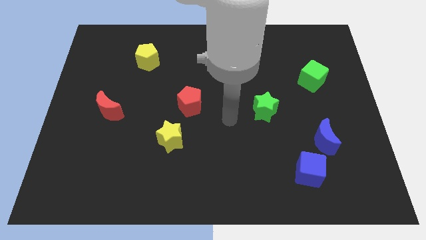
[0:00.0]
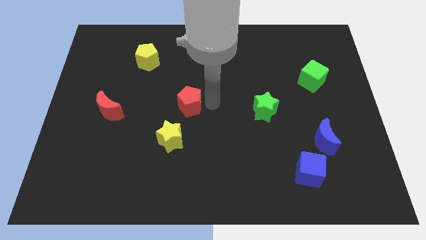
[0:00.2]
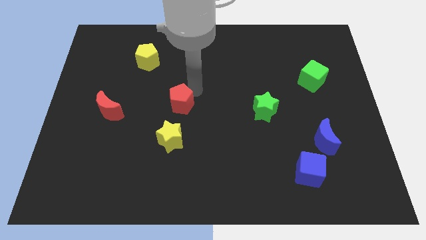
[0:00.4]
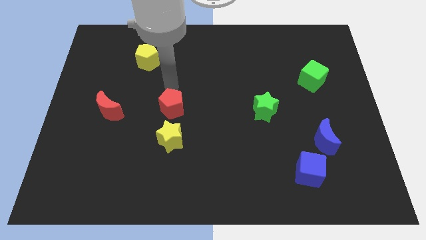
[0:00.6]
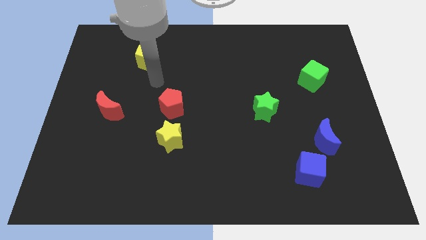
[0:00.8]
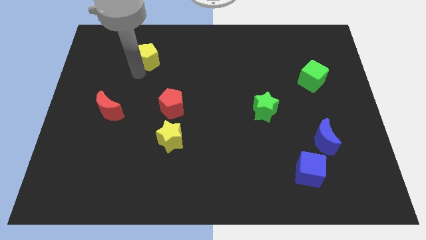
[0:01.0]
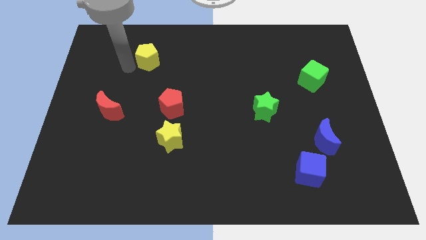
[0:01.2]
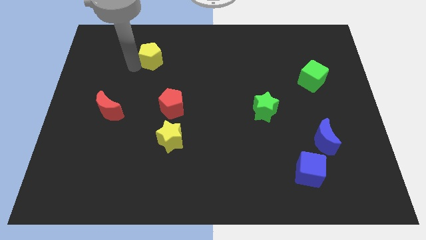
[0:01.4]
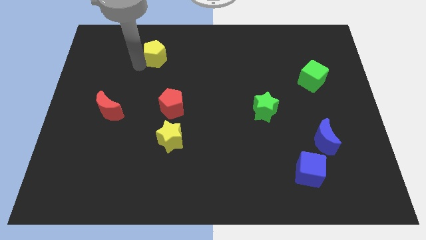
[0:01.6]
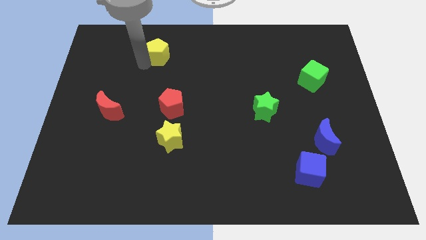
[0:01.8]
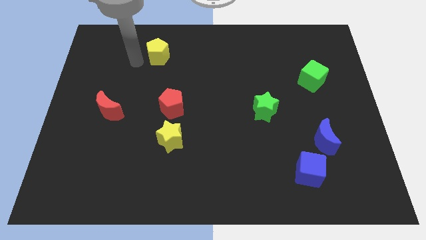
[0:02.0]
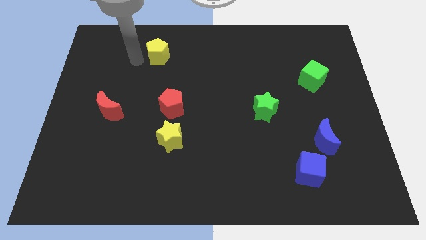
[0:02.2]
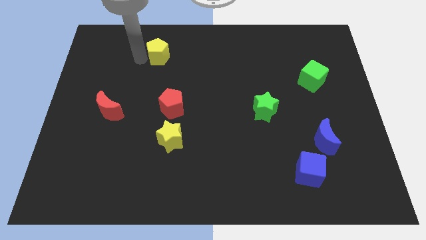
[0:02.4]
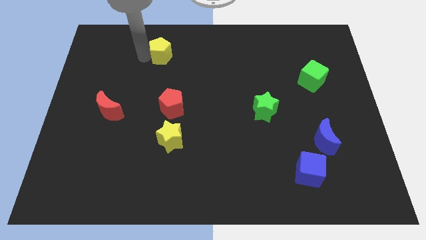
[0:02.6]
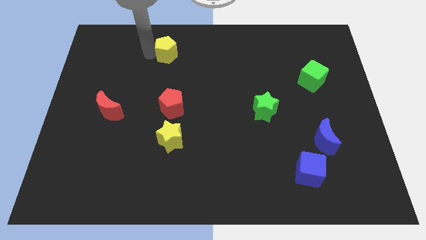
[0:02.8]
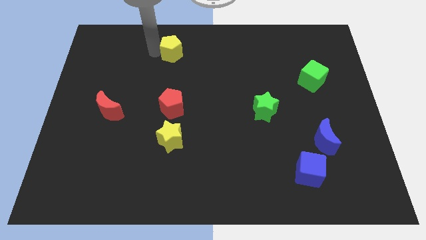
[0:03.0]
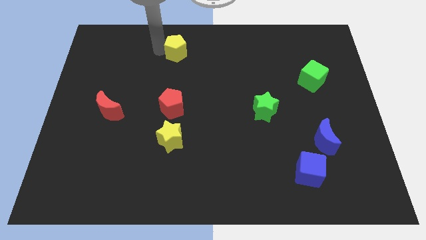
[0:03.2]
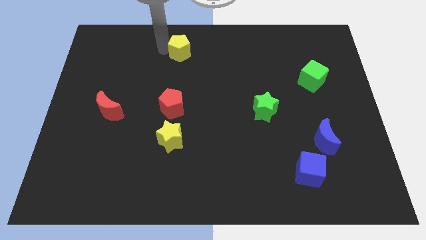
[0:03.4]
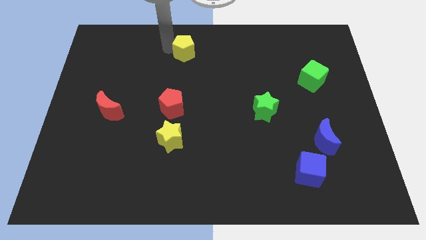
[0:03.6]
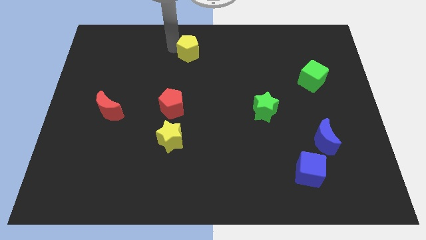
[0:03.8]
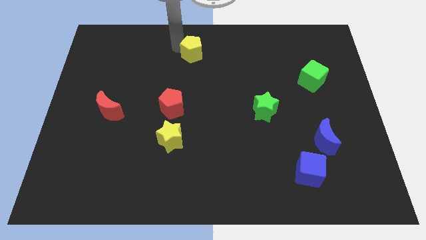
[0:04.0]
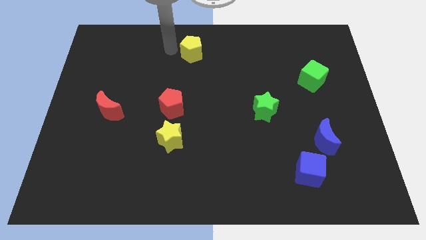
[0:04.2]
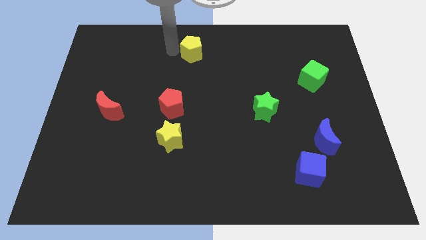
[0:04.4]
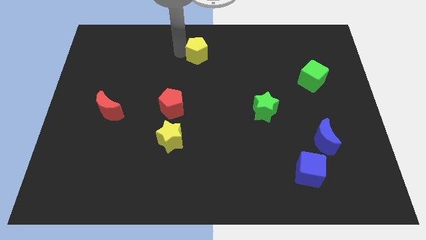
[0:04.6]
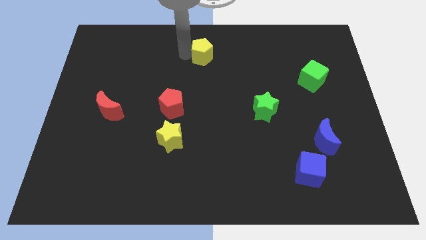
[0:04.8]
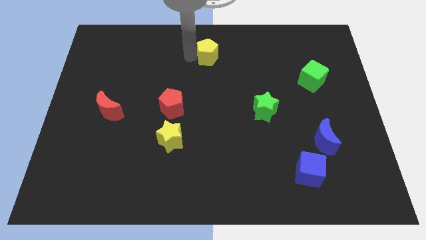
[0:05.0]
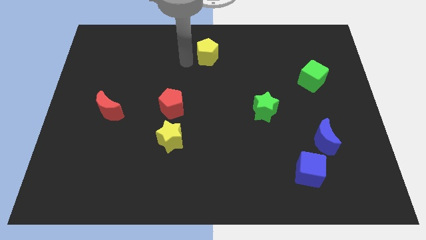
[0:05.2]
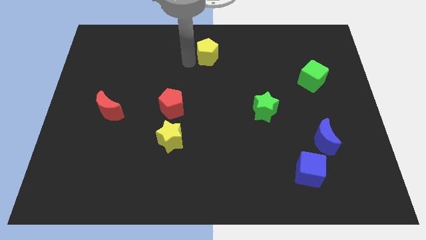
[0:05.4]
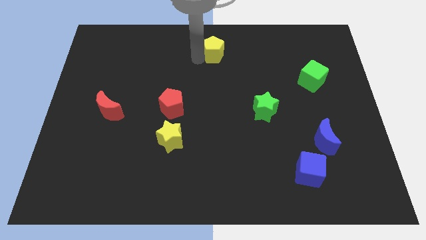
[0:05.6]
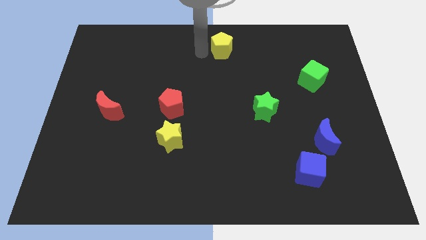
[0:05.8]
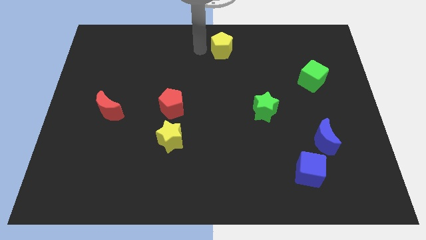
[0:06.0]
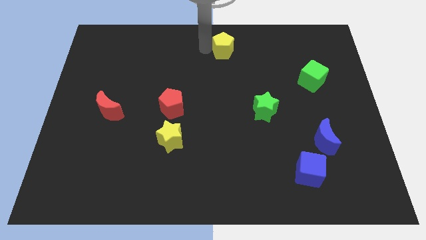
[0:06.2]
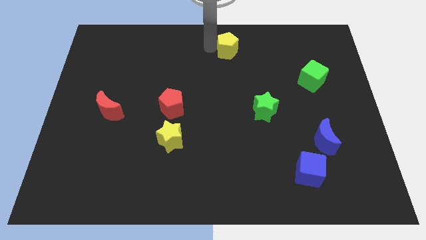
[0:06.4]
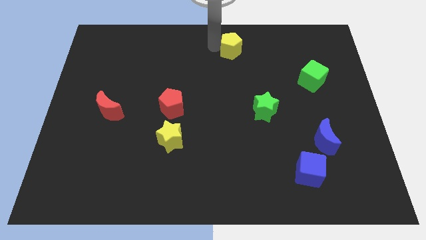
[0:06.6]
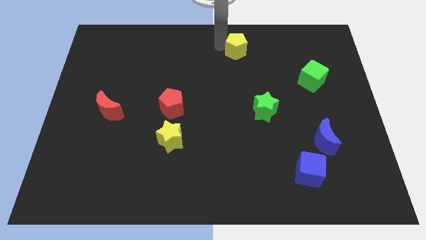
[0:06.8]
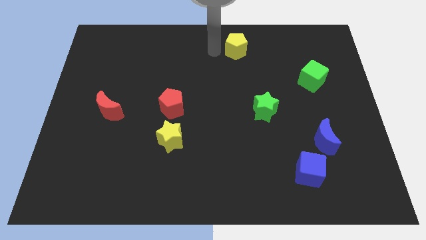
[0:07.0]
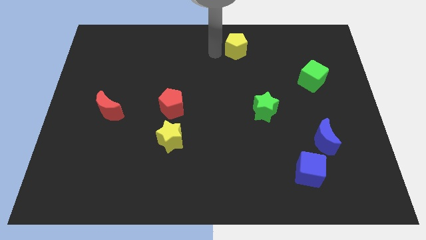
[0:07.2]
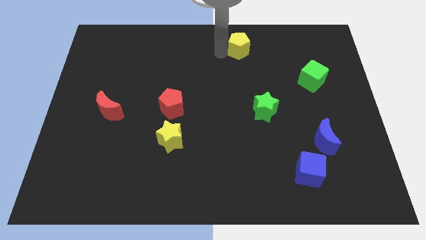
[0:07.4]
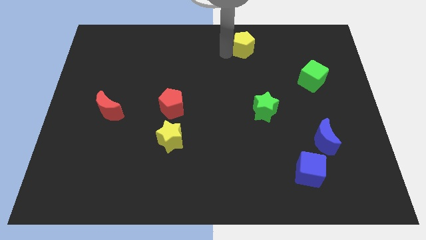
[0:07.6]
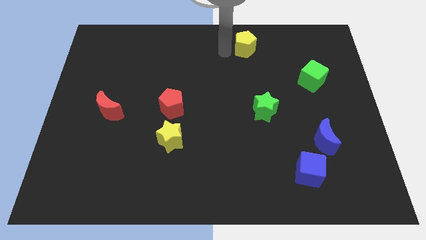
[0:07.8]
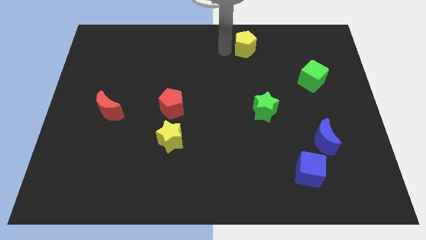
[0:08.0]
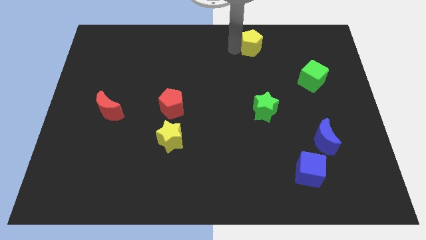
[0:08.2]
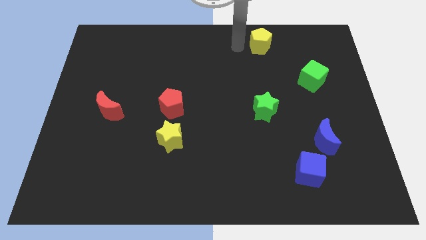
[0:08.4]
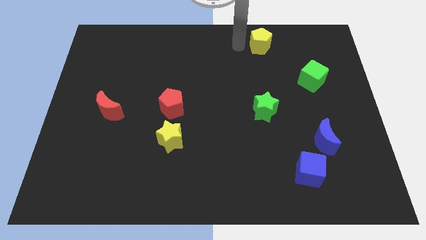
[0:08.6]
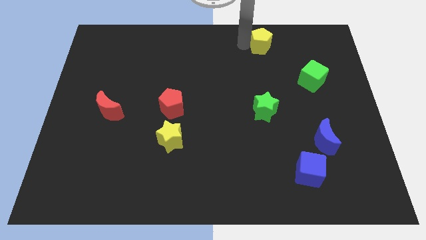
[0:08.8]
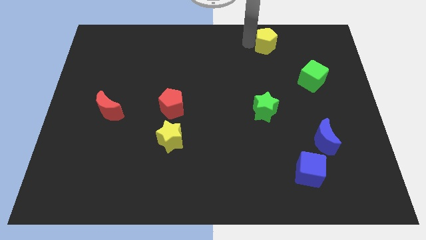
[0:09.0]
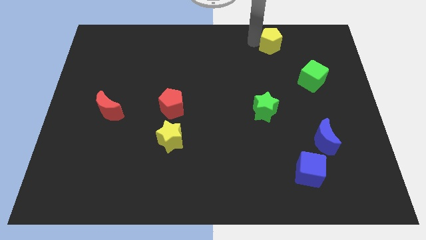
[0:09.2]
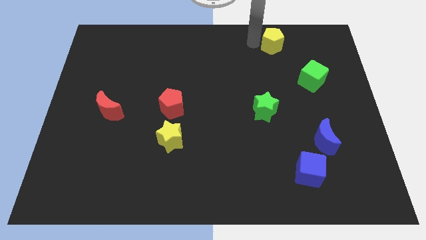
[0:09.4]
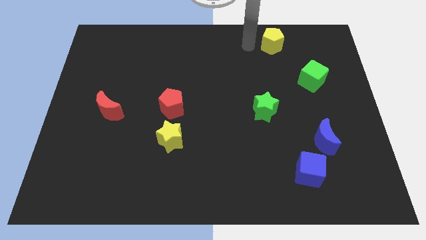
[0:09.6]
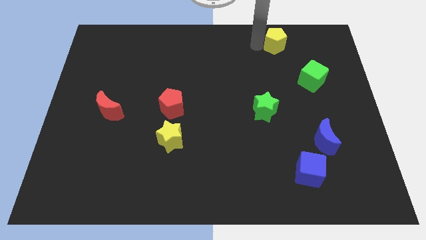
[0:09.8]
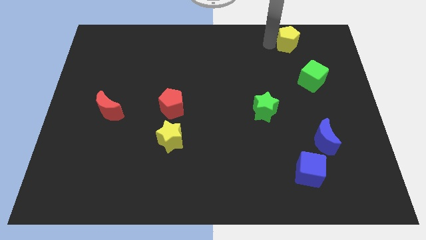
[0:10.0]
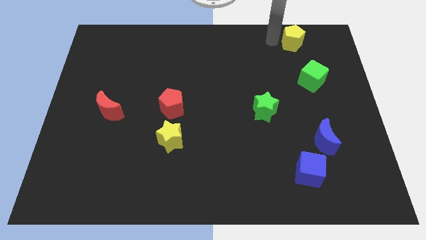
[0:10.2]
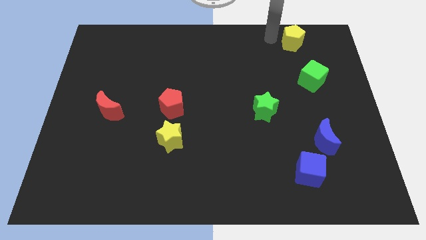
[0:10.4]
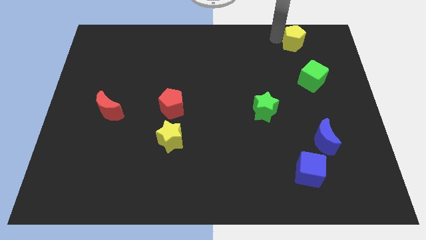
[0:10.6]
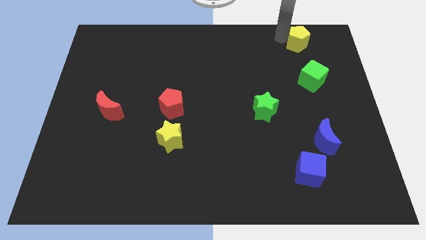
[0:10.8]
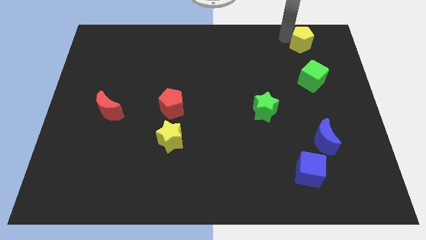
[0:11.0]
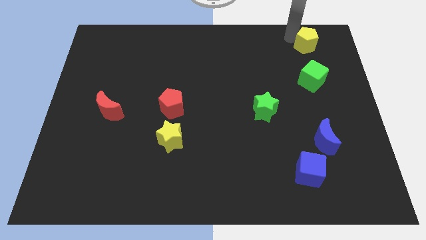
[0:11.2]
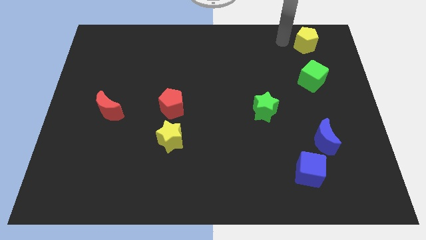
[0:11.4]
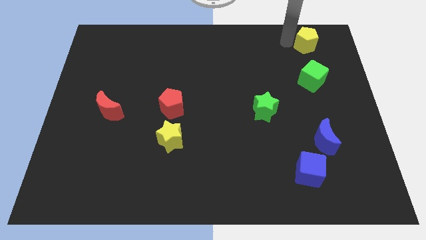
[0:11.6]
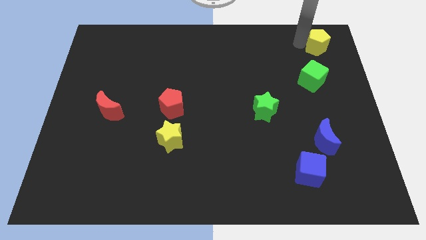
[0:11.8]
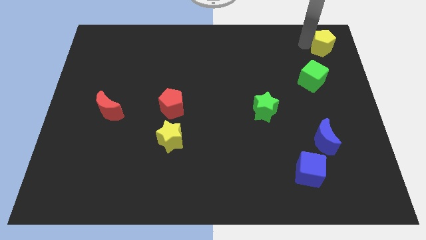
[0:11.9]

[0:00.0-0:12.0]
slide the yellow pentagon to the top right of the board
